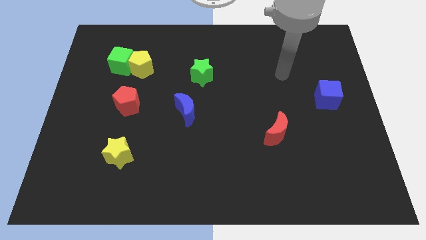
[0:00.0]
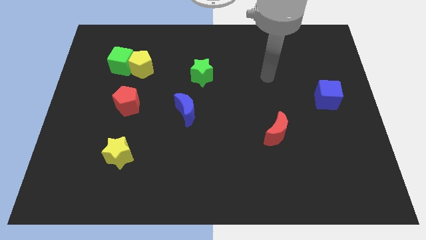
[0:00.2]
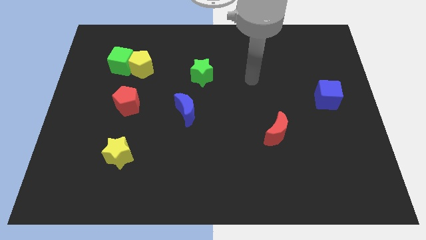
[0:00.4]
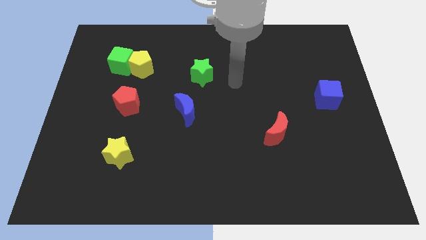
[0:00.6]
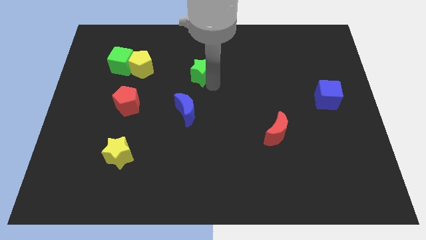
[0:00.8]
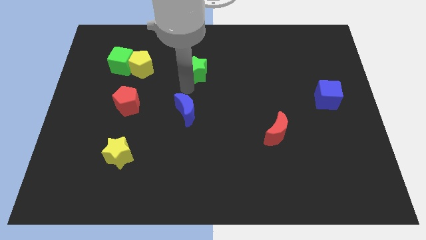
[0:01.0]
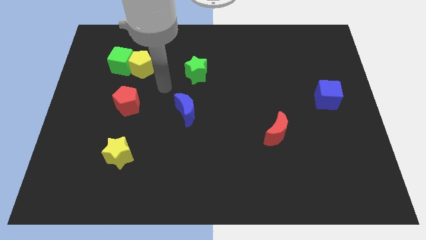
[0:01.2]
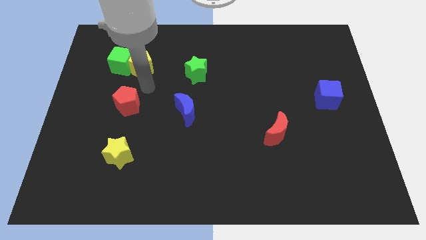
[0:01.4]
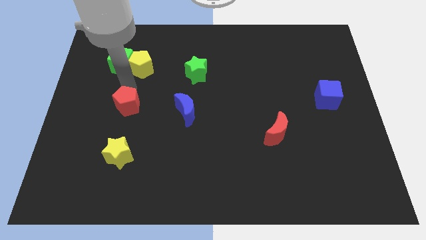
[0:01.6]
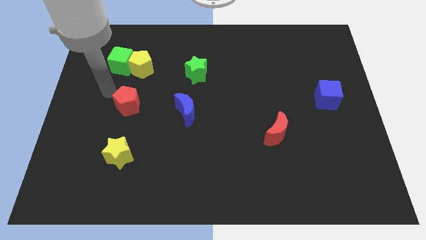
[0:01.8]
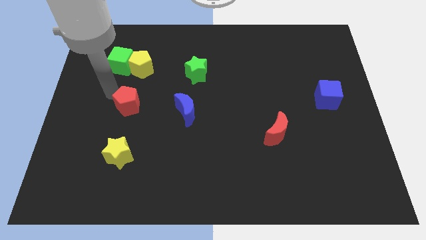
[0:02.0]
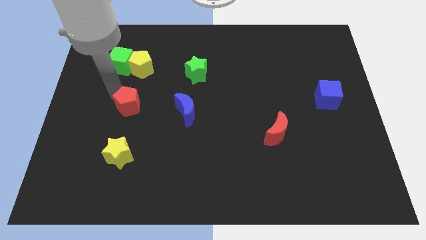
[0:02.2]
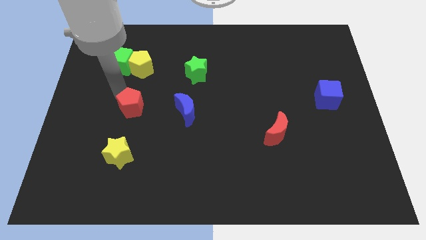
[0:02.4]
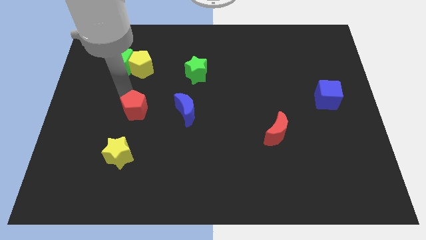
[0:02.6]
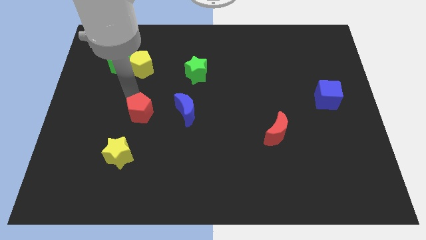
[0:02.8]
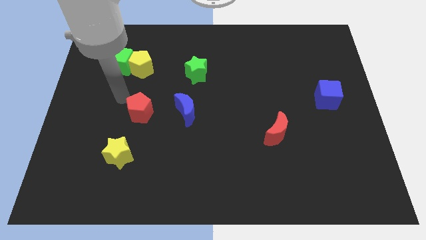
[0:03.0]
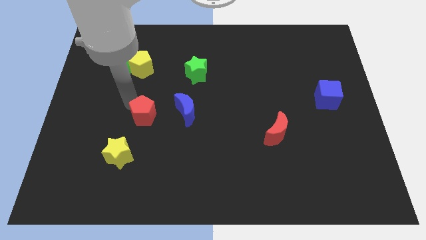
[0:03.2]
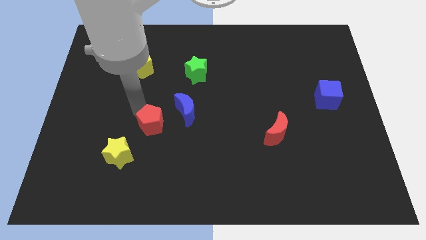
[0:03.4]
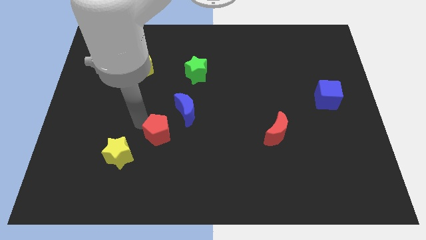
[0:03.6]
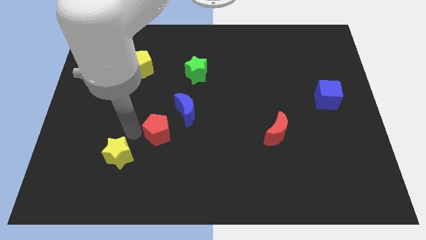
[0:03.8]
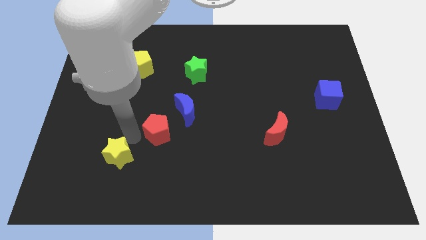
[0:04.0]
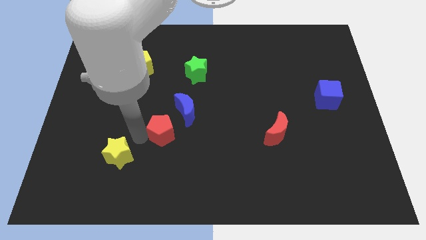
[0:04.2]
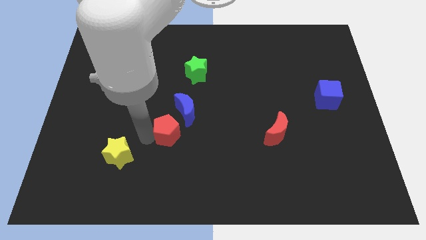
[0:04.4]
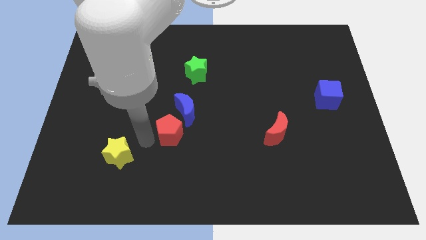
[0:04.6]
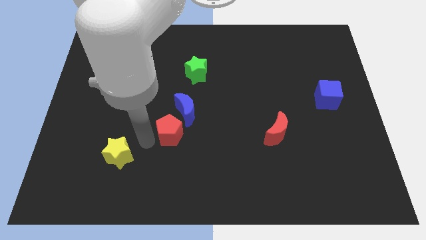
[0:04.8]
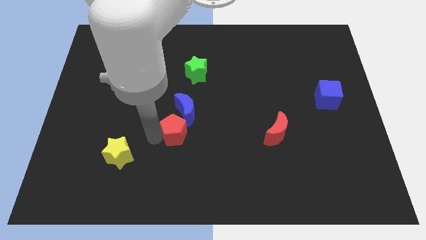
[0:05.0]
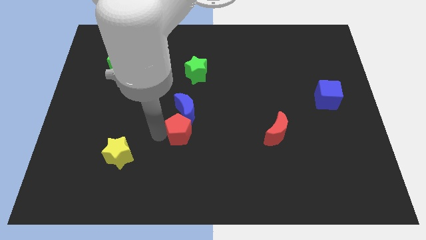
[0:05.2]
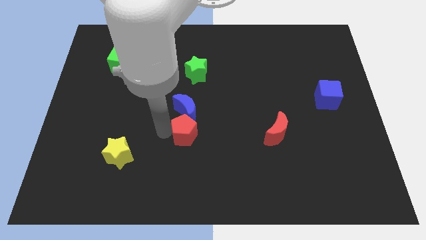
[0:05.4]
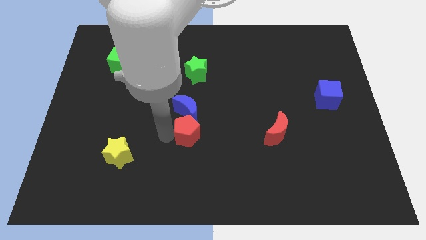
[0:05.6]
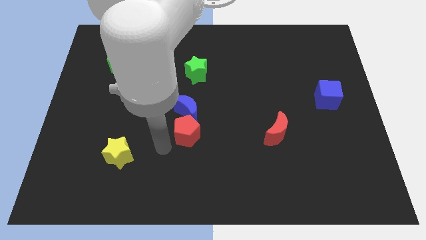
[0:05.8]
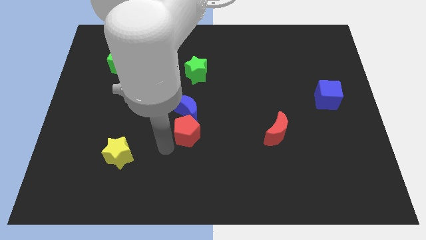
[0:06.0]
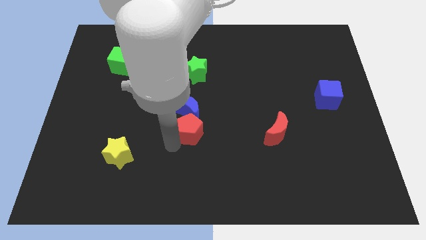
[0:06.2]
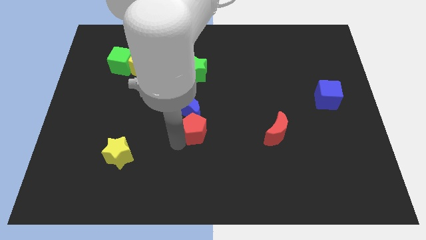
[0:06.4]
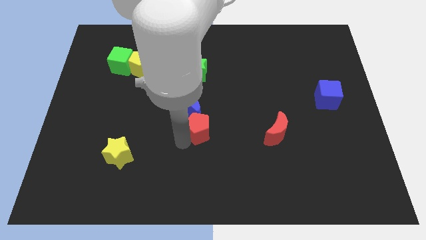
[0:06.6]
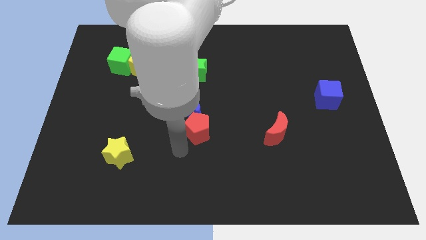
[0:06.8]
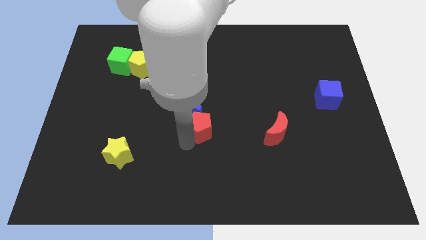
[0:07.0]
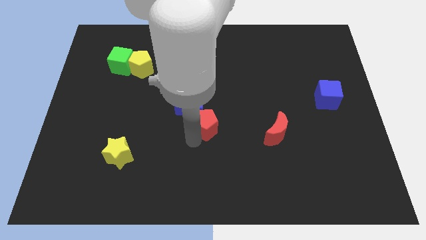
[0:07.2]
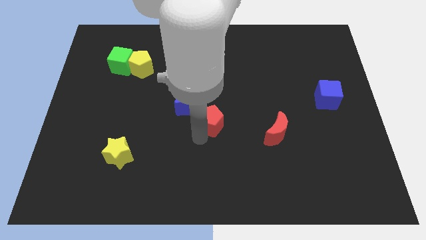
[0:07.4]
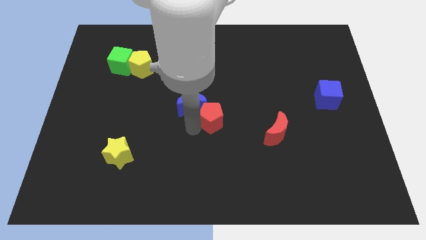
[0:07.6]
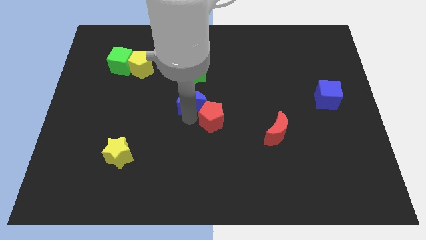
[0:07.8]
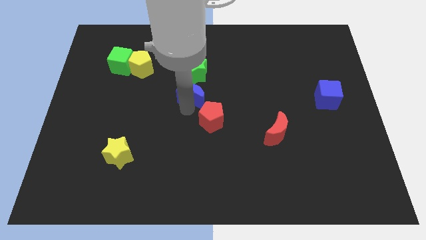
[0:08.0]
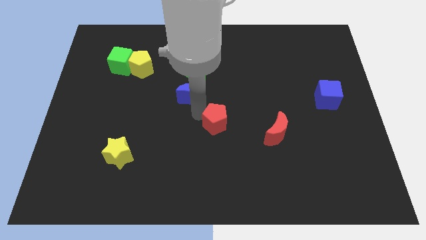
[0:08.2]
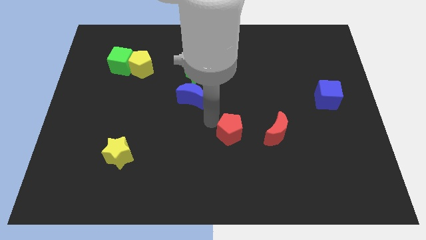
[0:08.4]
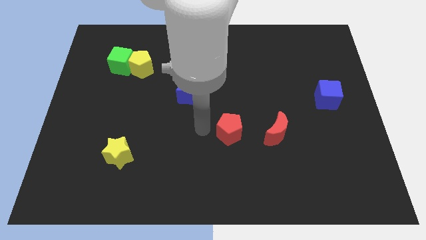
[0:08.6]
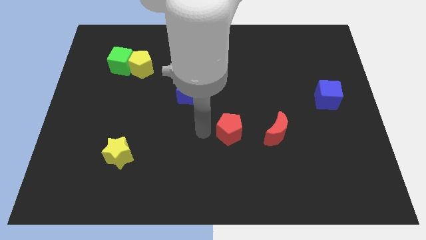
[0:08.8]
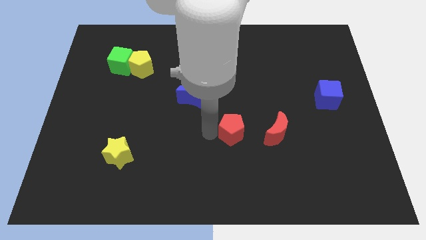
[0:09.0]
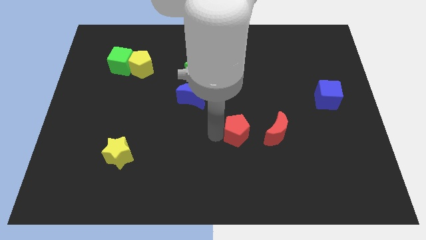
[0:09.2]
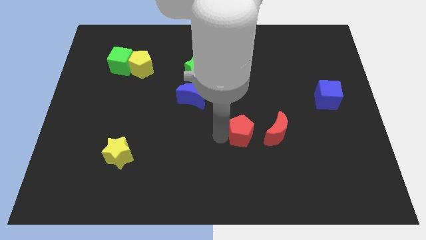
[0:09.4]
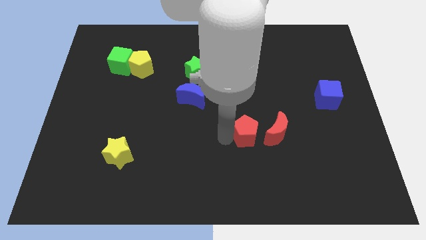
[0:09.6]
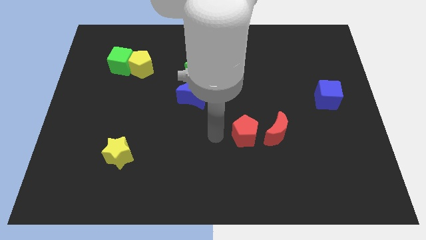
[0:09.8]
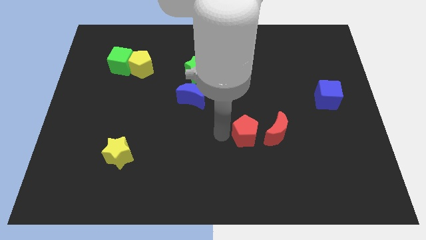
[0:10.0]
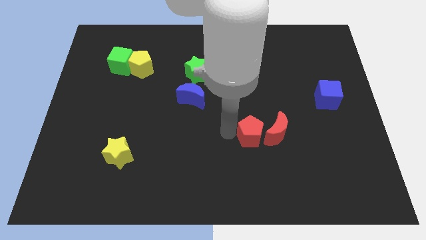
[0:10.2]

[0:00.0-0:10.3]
slide the red pentagon next to the red moon

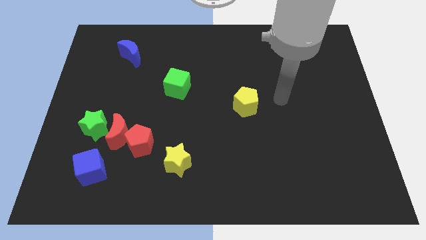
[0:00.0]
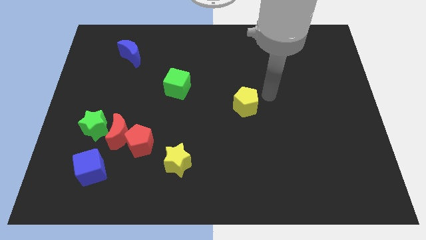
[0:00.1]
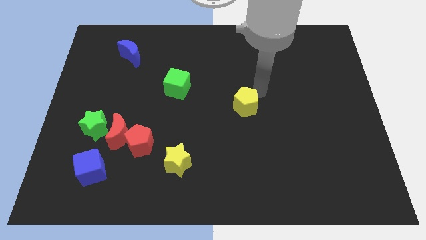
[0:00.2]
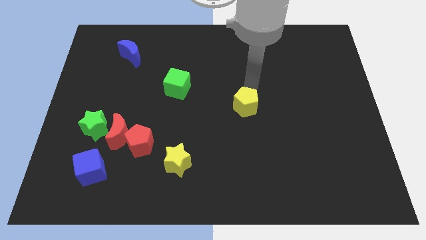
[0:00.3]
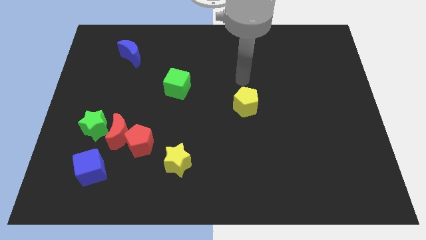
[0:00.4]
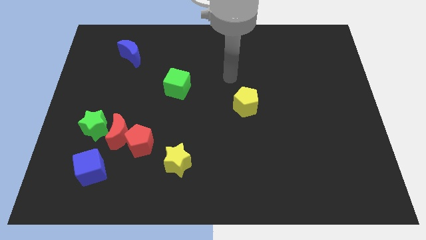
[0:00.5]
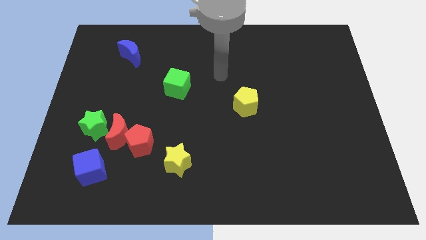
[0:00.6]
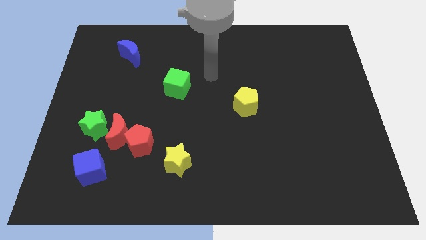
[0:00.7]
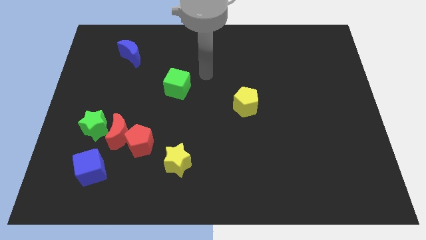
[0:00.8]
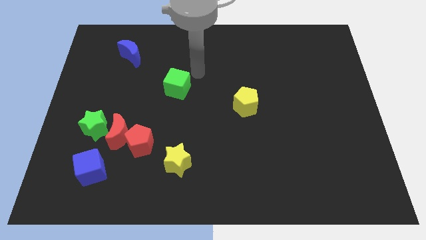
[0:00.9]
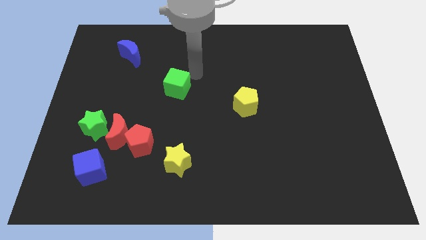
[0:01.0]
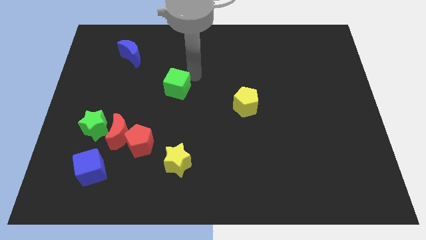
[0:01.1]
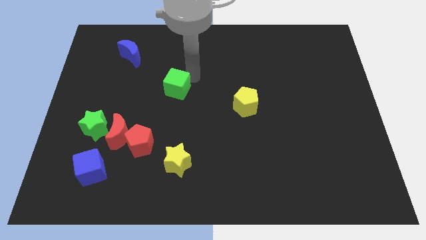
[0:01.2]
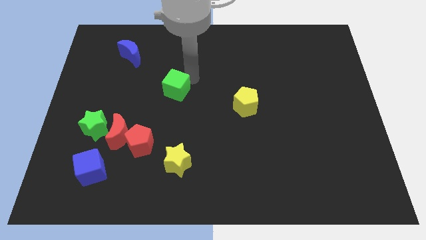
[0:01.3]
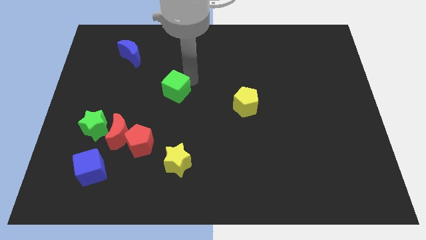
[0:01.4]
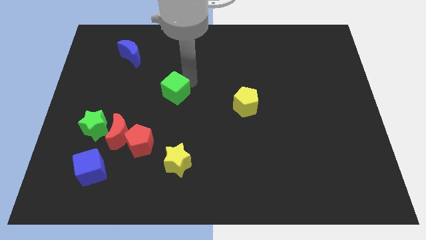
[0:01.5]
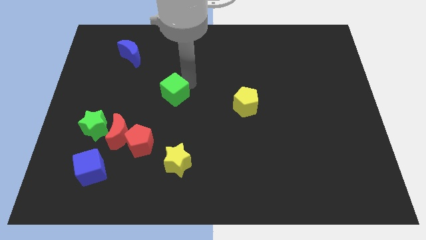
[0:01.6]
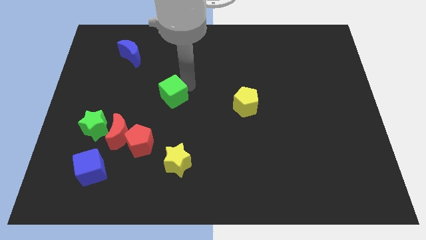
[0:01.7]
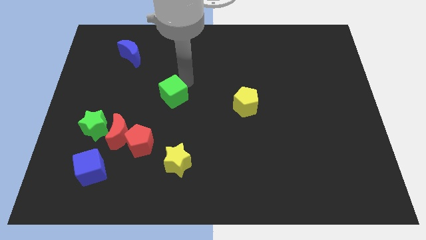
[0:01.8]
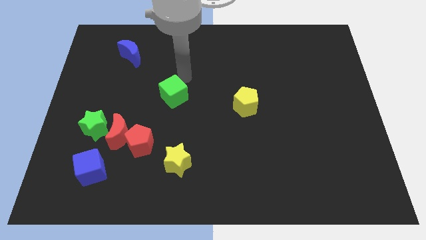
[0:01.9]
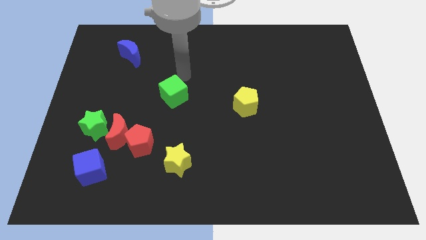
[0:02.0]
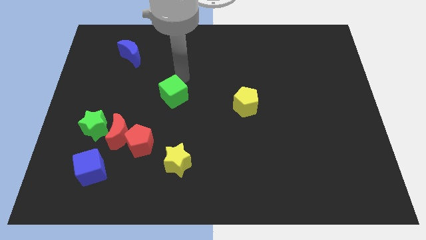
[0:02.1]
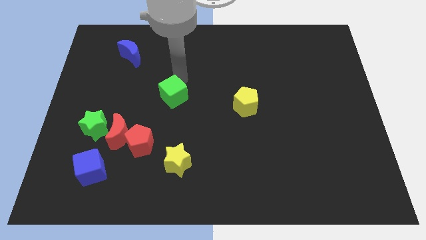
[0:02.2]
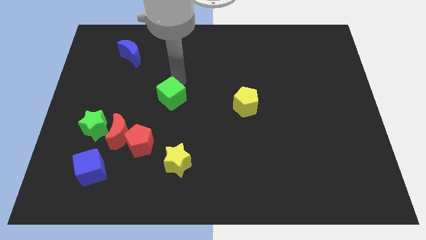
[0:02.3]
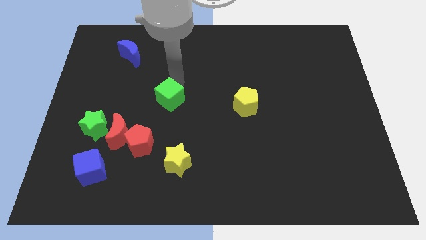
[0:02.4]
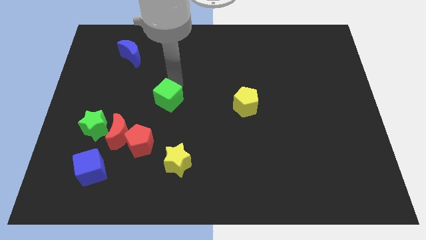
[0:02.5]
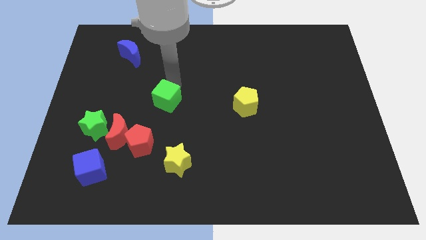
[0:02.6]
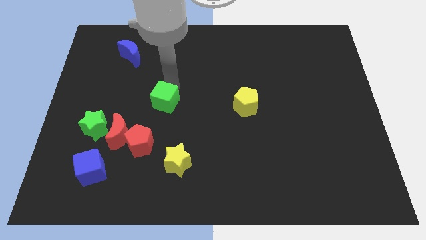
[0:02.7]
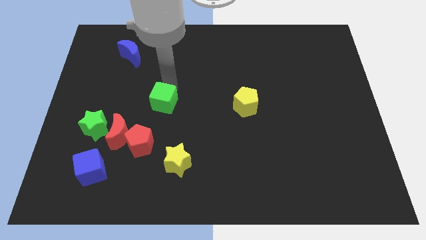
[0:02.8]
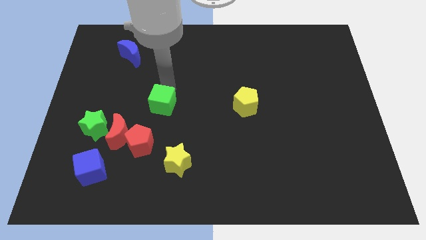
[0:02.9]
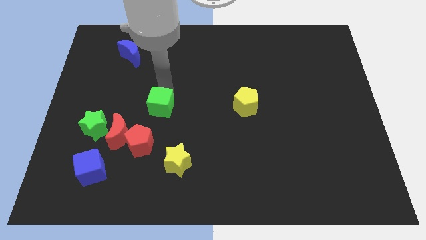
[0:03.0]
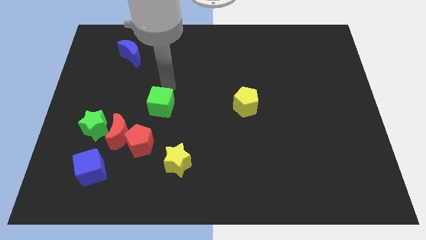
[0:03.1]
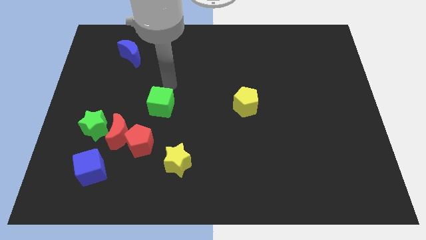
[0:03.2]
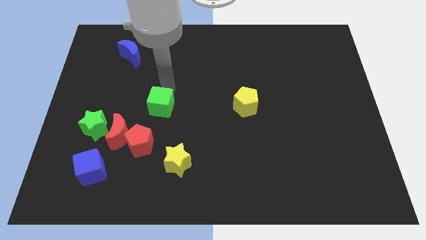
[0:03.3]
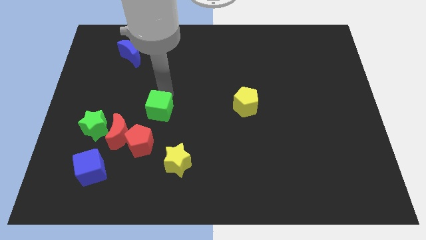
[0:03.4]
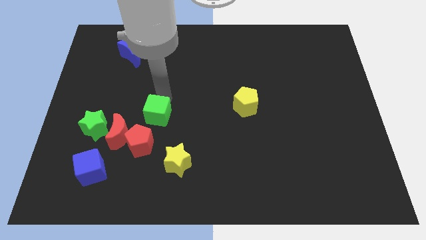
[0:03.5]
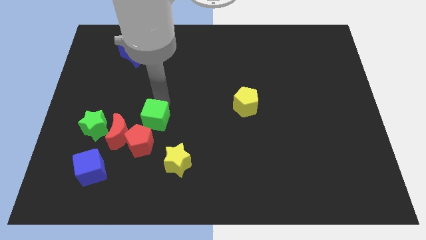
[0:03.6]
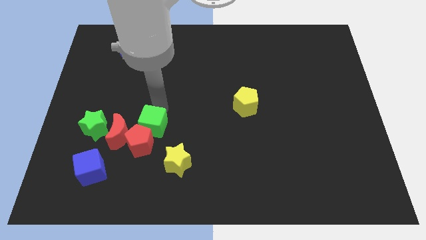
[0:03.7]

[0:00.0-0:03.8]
move the green cube next to the red pentagon
